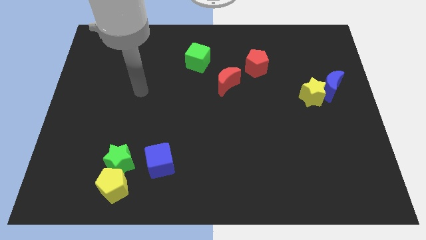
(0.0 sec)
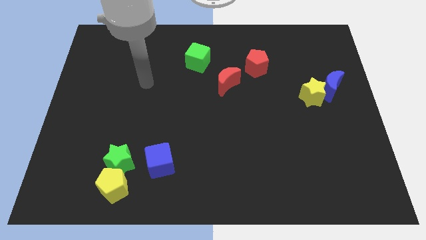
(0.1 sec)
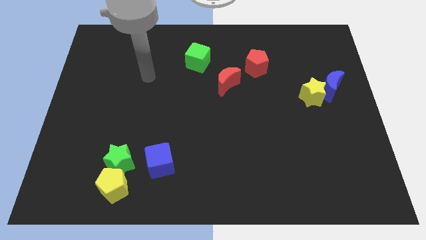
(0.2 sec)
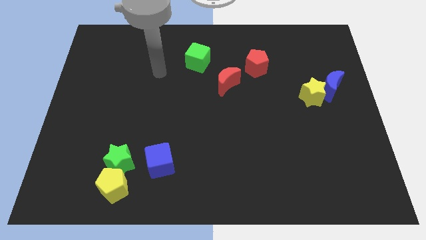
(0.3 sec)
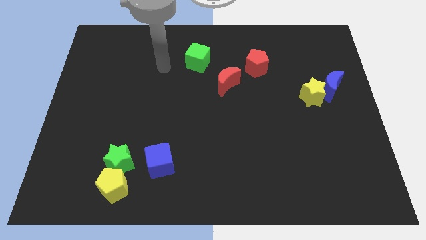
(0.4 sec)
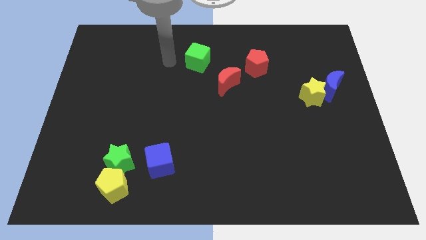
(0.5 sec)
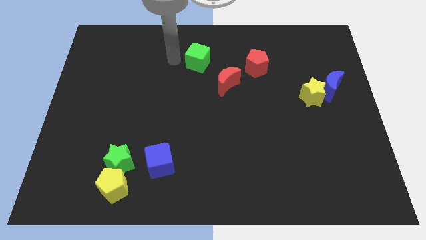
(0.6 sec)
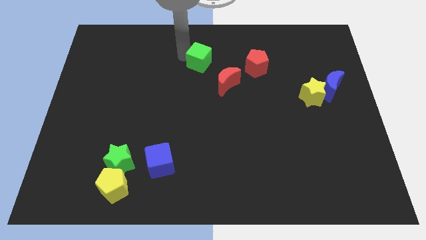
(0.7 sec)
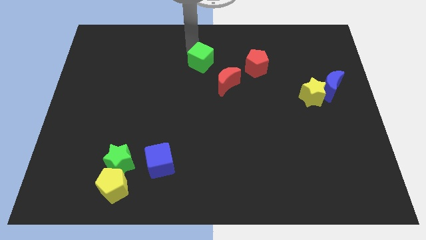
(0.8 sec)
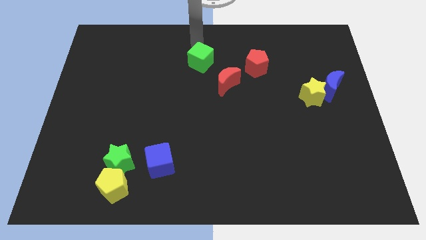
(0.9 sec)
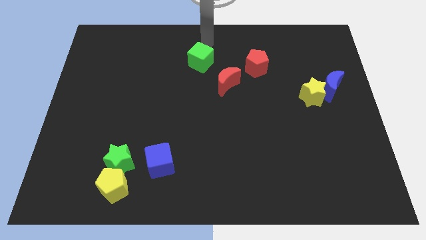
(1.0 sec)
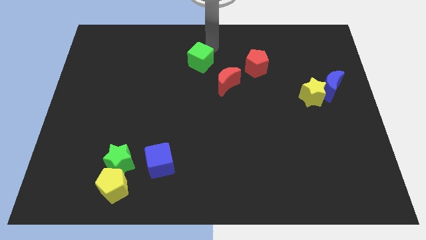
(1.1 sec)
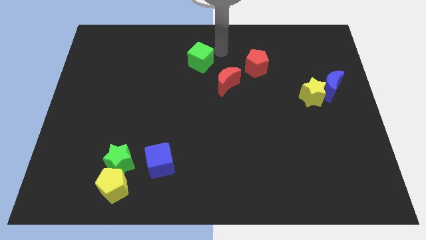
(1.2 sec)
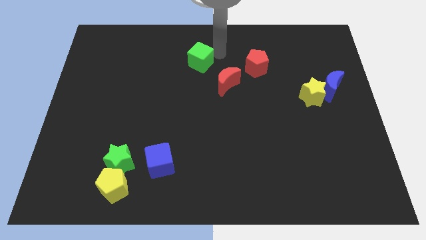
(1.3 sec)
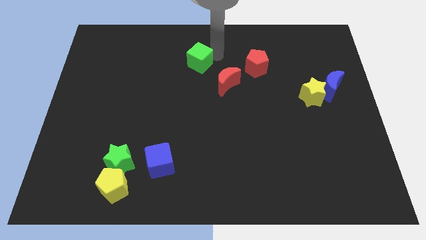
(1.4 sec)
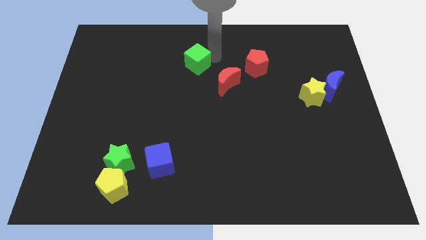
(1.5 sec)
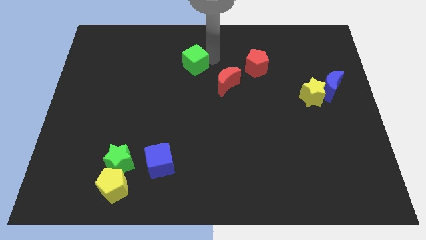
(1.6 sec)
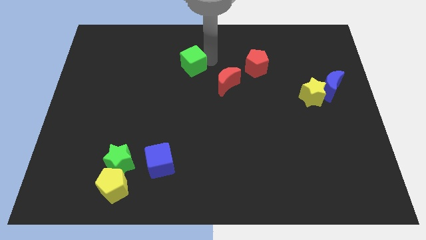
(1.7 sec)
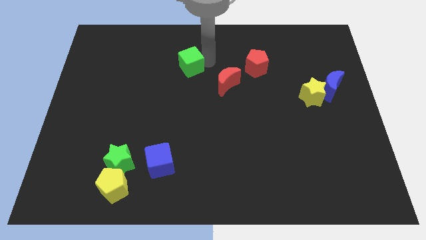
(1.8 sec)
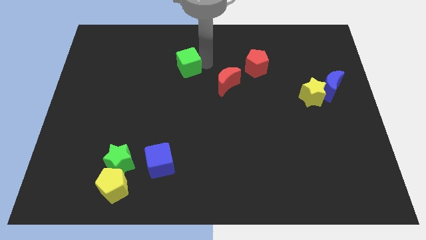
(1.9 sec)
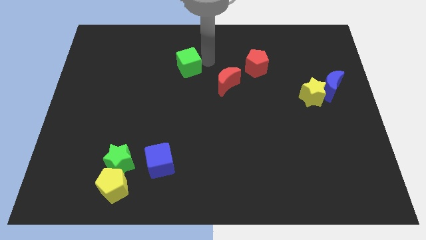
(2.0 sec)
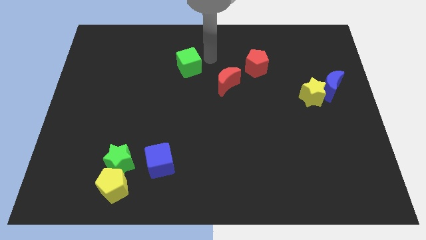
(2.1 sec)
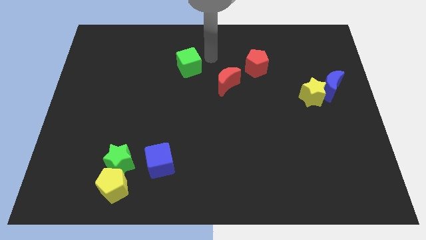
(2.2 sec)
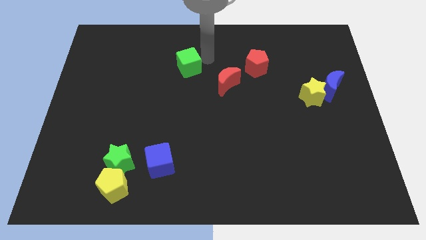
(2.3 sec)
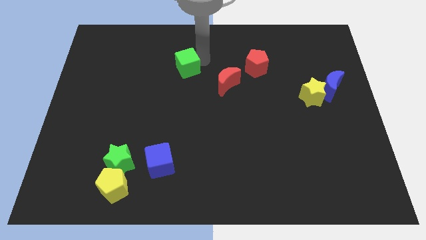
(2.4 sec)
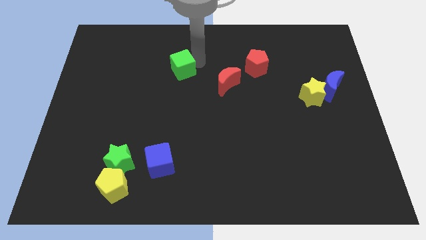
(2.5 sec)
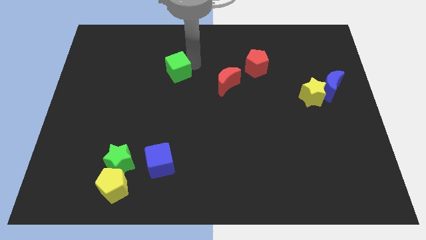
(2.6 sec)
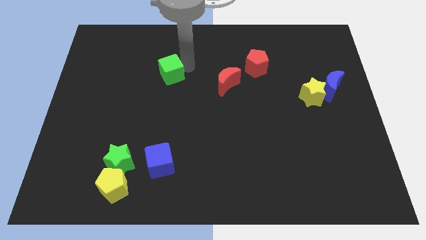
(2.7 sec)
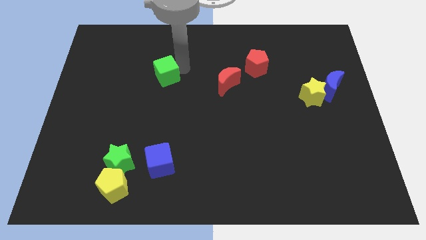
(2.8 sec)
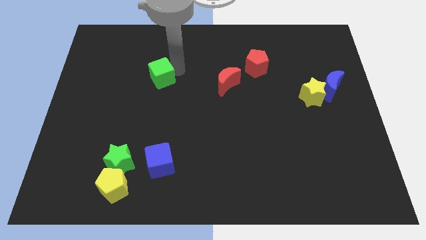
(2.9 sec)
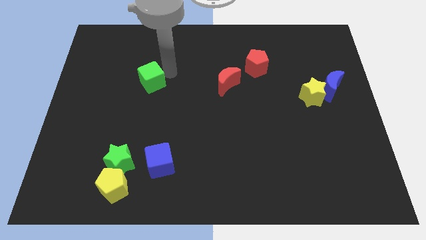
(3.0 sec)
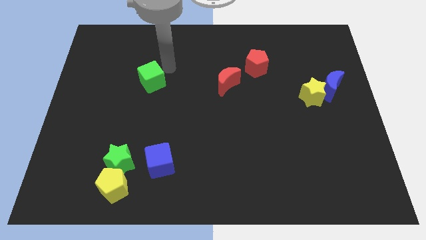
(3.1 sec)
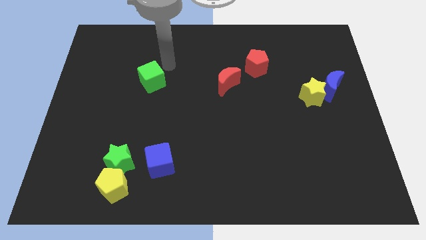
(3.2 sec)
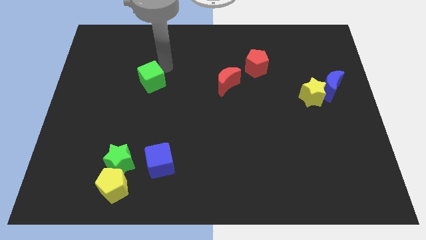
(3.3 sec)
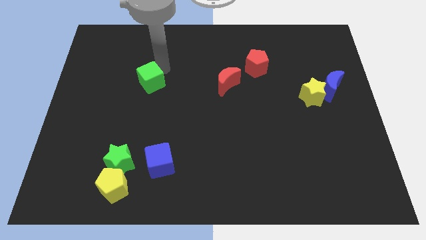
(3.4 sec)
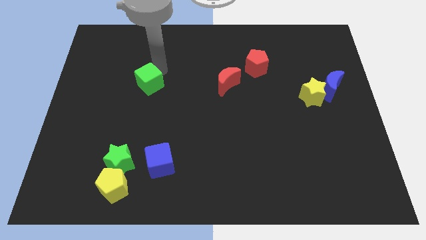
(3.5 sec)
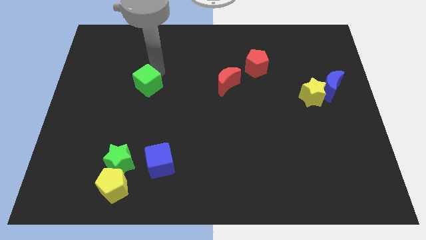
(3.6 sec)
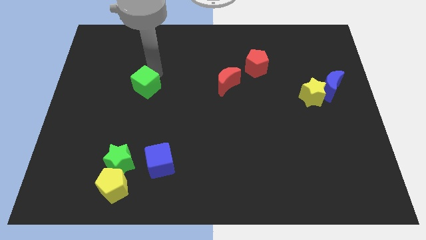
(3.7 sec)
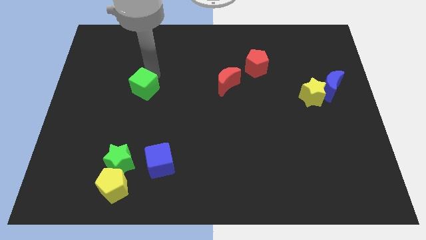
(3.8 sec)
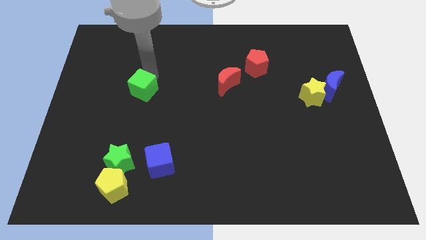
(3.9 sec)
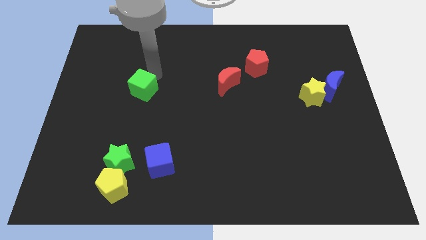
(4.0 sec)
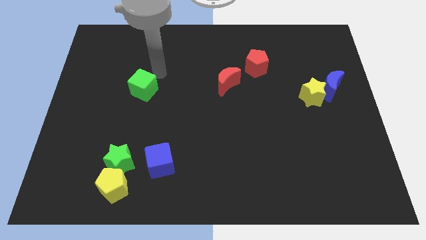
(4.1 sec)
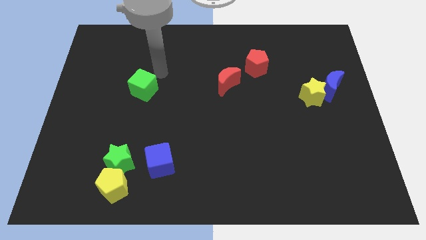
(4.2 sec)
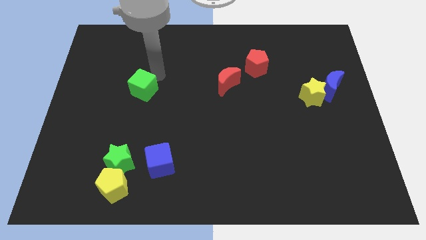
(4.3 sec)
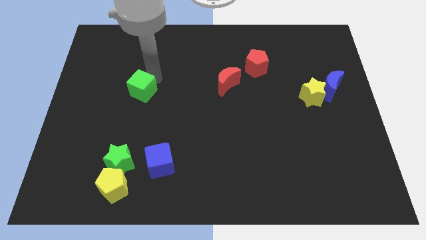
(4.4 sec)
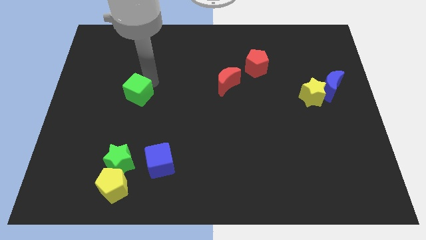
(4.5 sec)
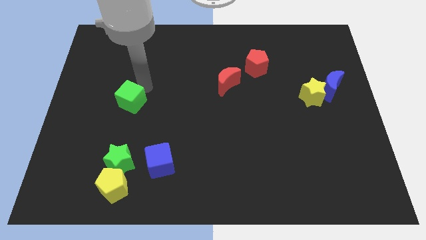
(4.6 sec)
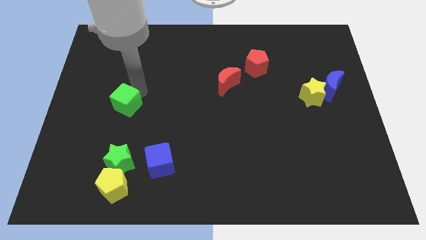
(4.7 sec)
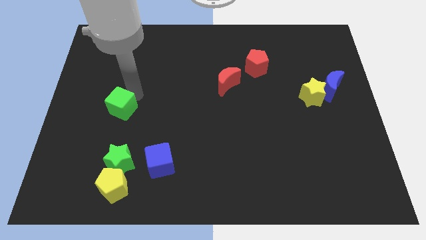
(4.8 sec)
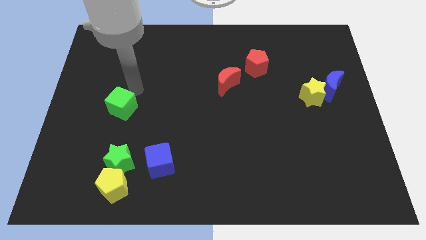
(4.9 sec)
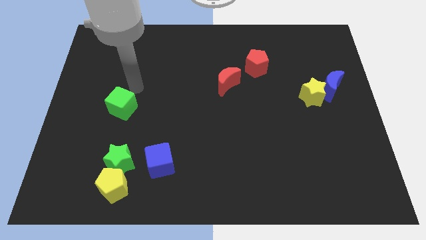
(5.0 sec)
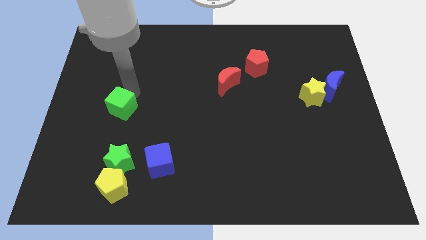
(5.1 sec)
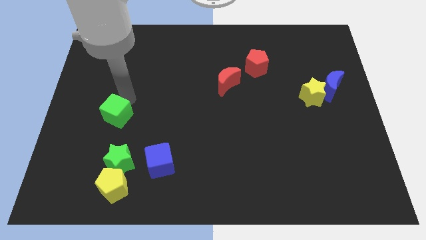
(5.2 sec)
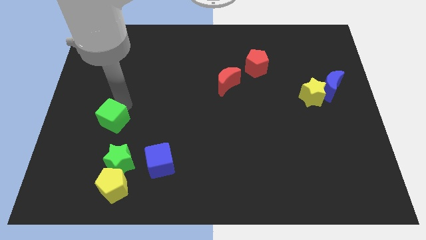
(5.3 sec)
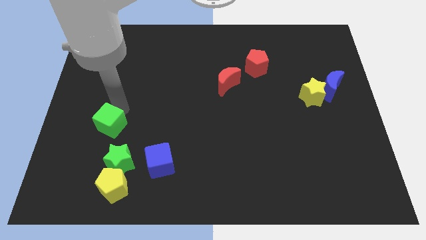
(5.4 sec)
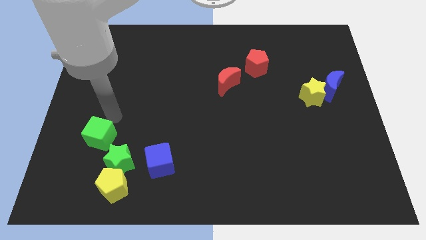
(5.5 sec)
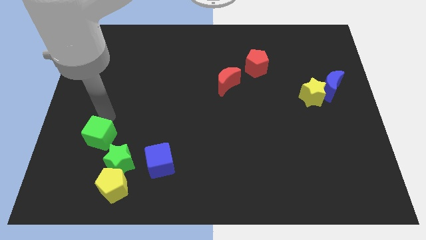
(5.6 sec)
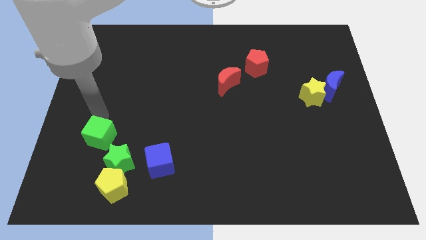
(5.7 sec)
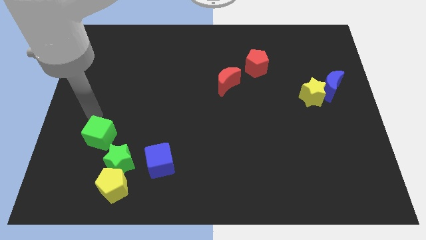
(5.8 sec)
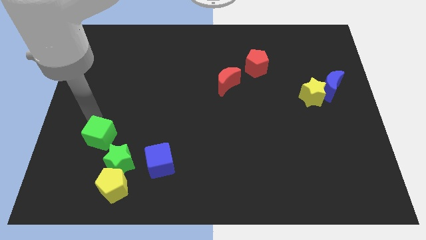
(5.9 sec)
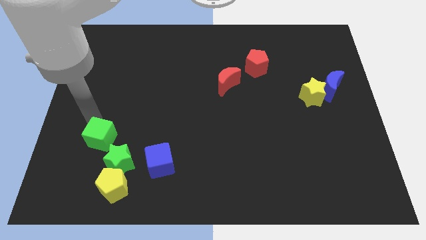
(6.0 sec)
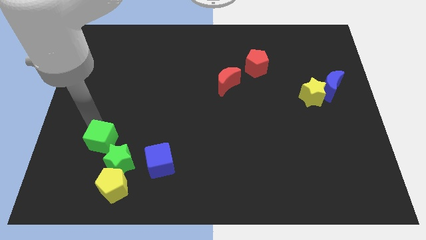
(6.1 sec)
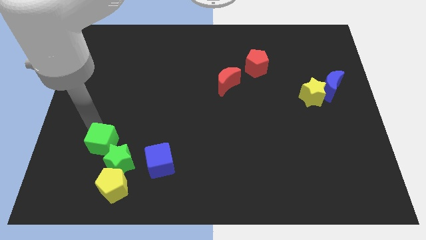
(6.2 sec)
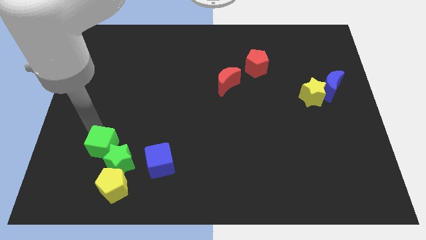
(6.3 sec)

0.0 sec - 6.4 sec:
move the green cube just left of the blue cube

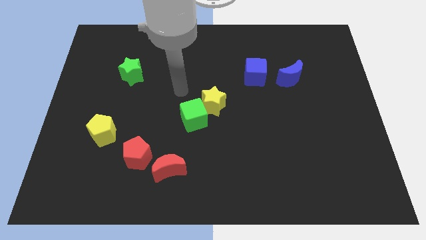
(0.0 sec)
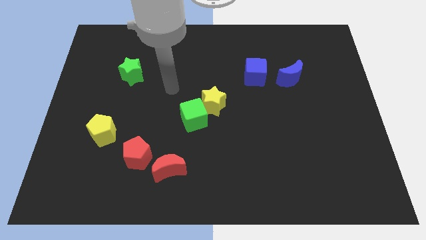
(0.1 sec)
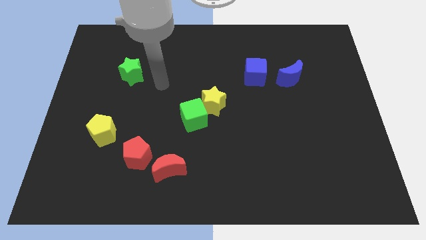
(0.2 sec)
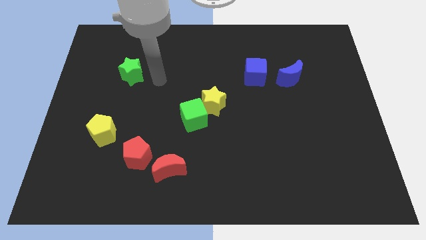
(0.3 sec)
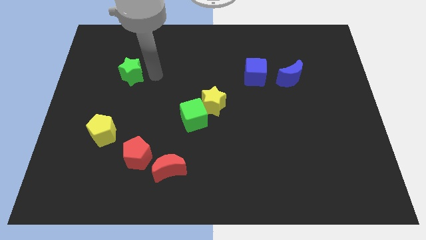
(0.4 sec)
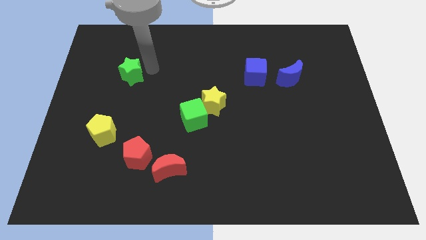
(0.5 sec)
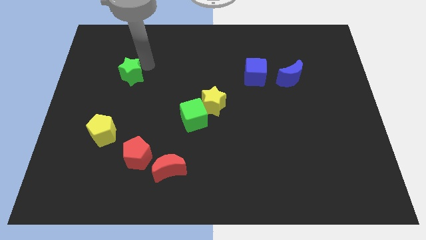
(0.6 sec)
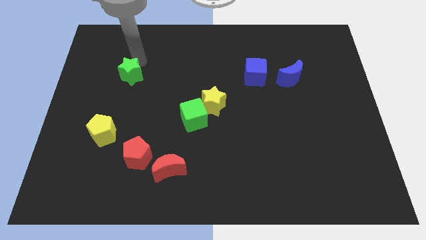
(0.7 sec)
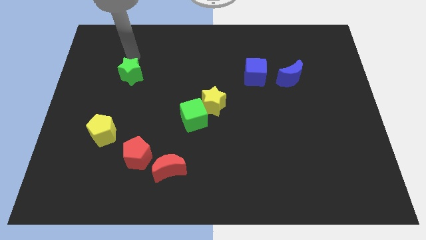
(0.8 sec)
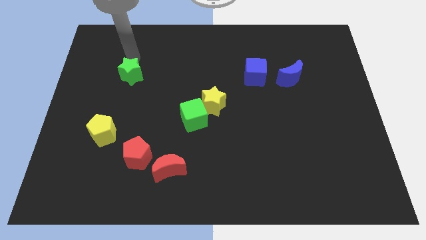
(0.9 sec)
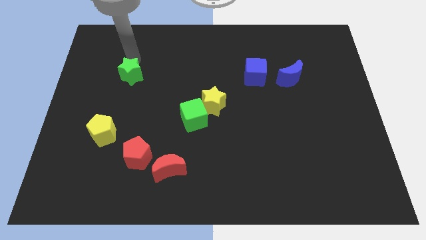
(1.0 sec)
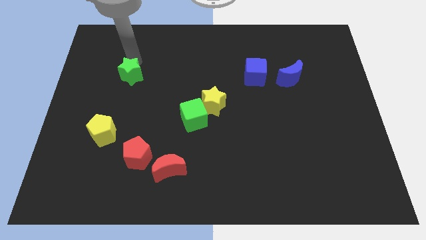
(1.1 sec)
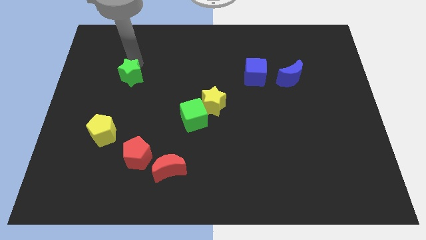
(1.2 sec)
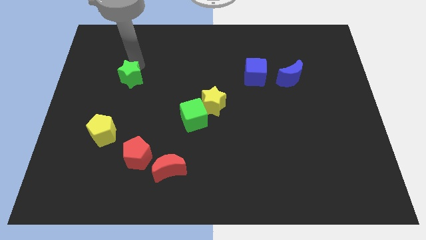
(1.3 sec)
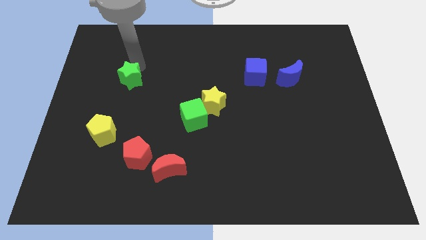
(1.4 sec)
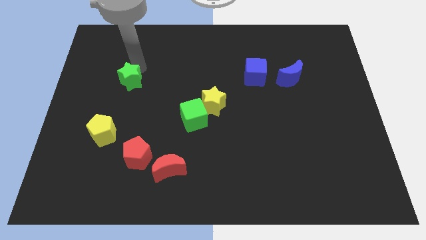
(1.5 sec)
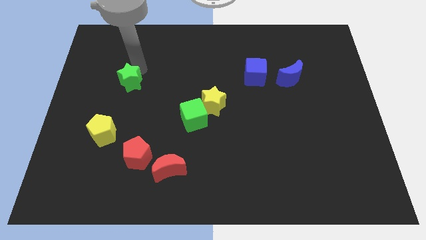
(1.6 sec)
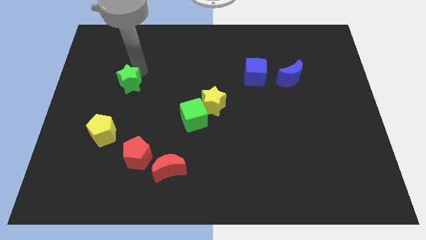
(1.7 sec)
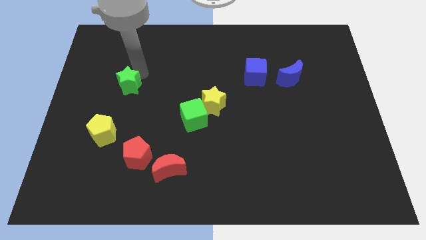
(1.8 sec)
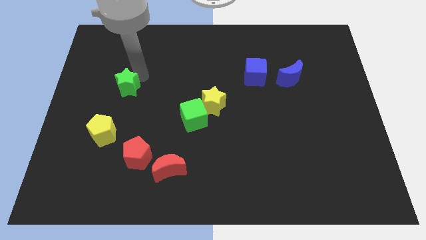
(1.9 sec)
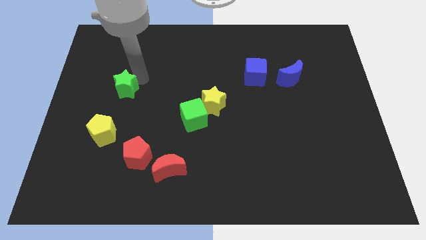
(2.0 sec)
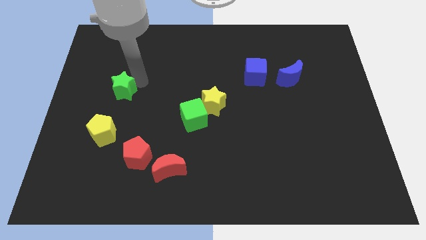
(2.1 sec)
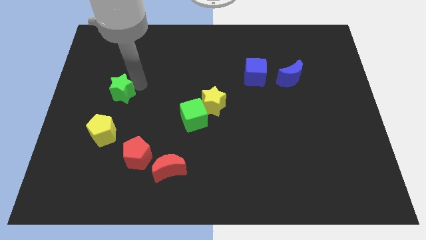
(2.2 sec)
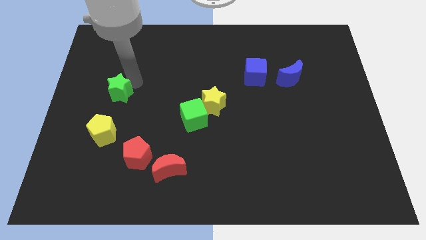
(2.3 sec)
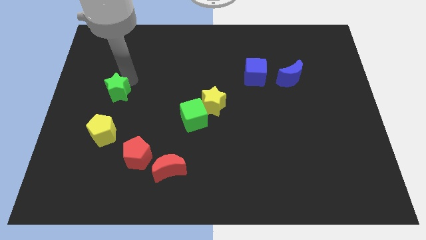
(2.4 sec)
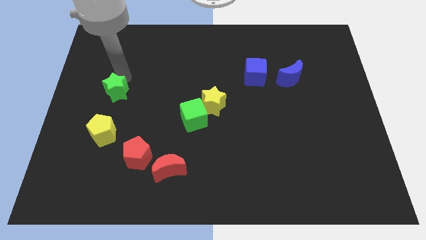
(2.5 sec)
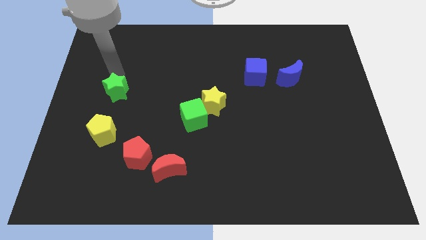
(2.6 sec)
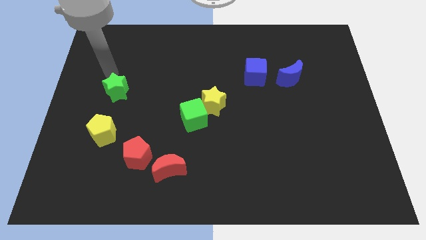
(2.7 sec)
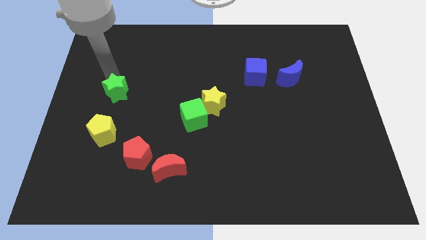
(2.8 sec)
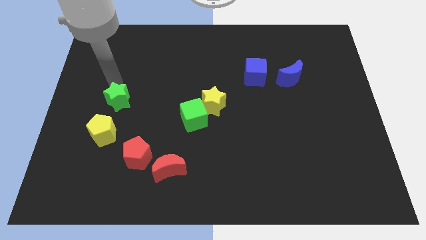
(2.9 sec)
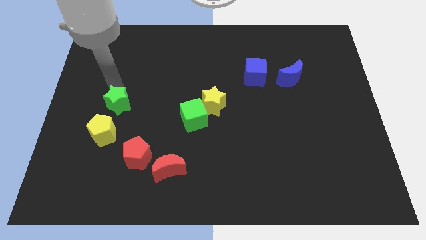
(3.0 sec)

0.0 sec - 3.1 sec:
move the green star to the top right side of the yellow pentagon
